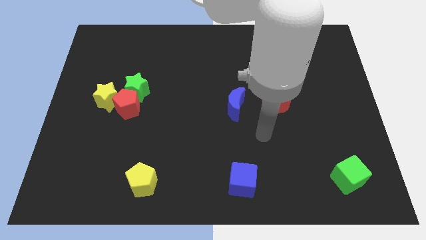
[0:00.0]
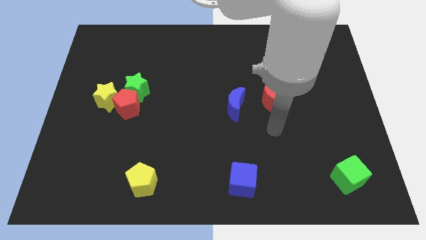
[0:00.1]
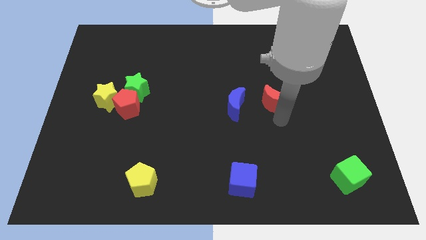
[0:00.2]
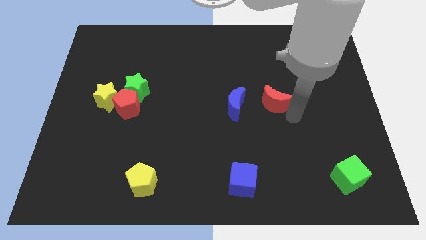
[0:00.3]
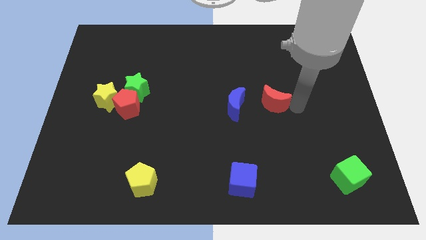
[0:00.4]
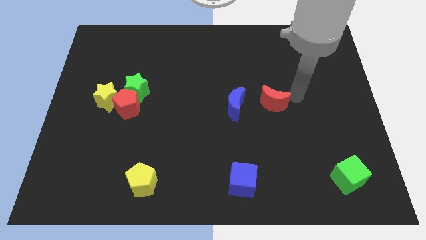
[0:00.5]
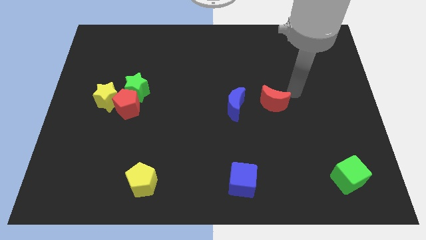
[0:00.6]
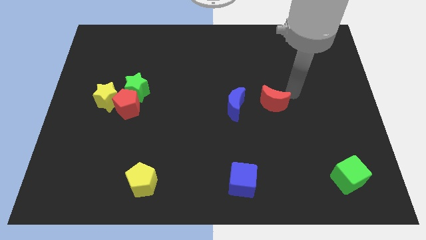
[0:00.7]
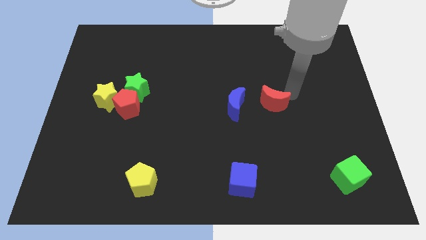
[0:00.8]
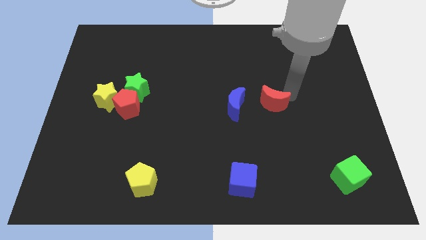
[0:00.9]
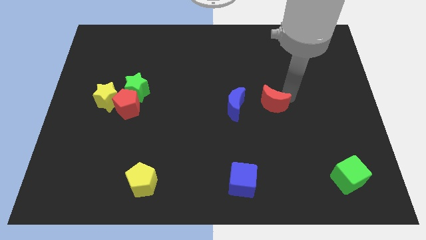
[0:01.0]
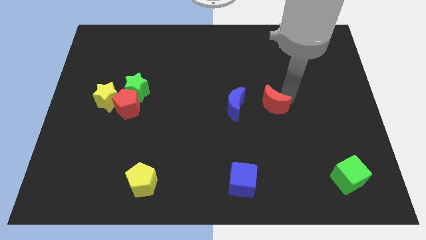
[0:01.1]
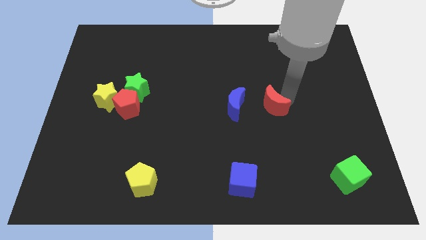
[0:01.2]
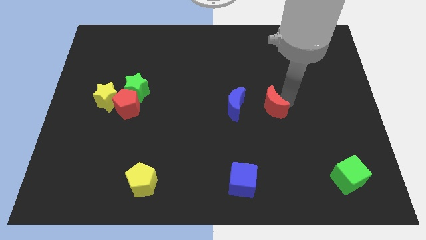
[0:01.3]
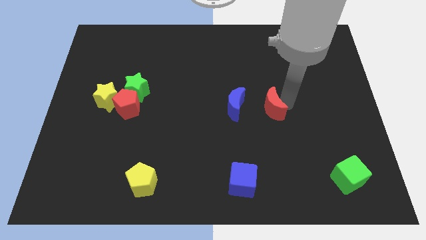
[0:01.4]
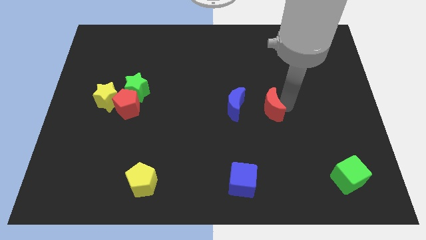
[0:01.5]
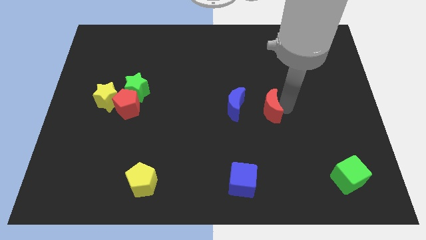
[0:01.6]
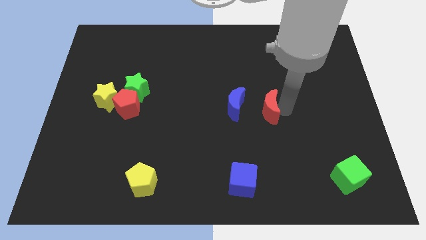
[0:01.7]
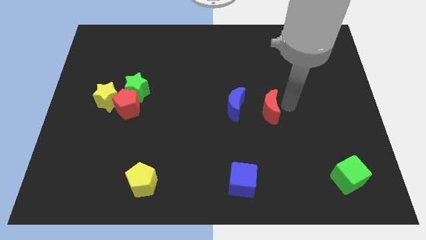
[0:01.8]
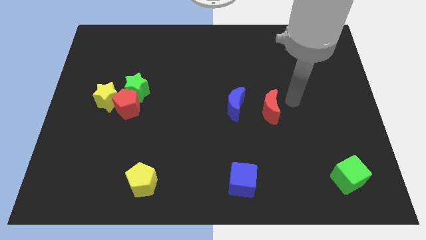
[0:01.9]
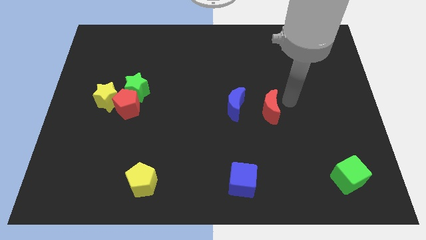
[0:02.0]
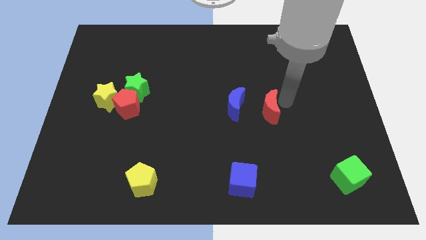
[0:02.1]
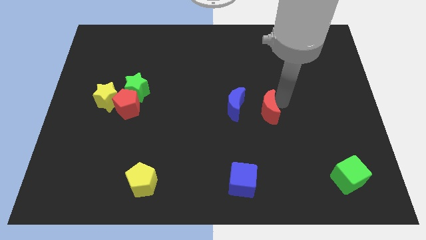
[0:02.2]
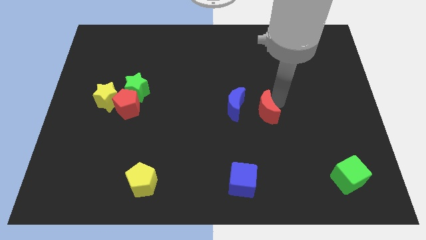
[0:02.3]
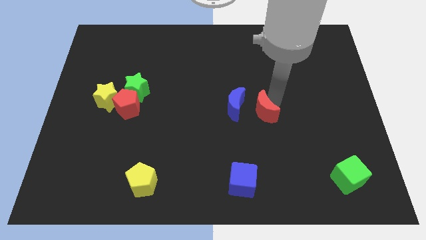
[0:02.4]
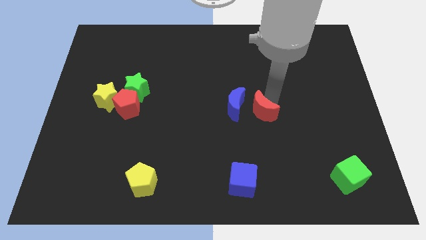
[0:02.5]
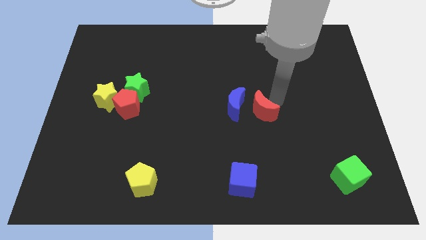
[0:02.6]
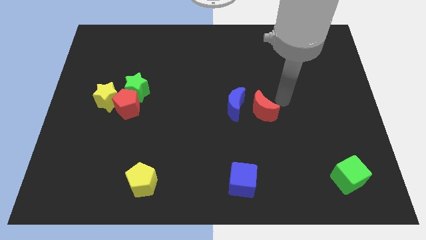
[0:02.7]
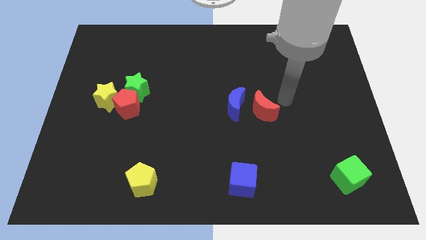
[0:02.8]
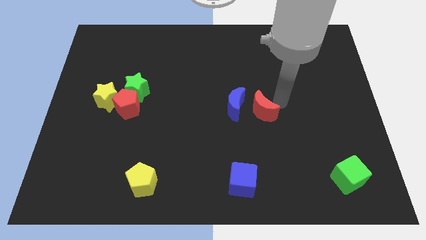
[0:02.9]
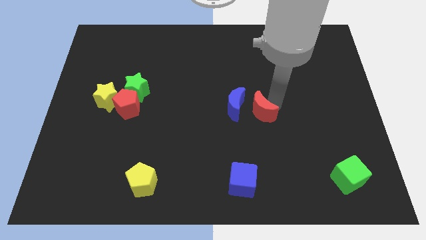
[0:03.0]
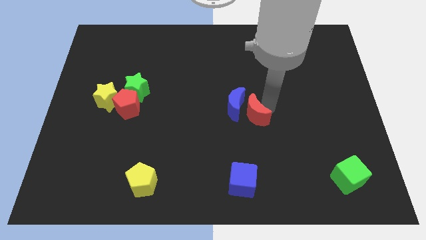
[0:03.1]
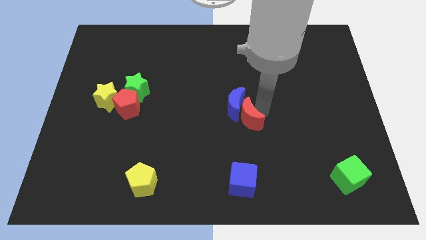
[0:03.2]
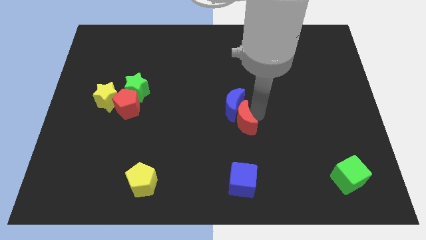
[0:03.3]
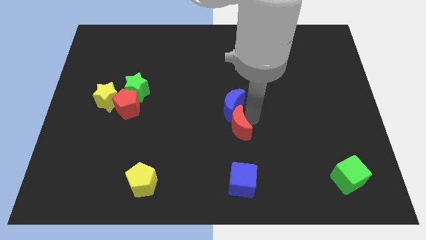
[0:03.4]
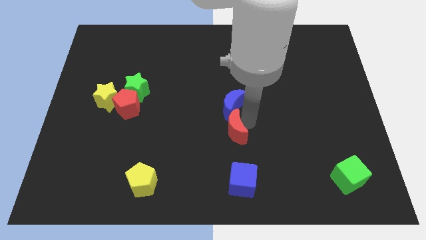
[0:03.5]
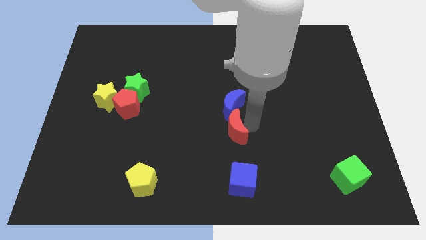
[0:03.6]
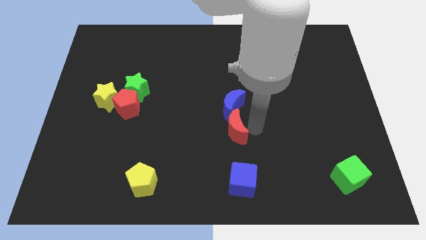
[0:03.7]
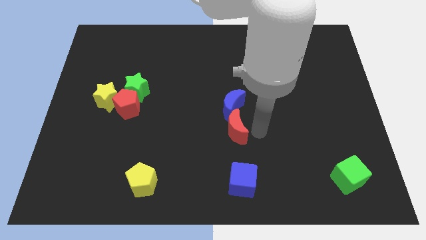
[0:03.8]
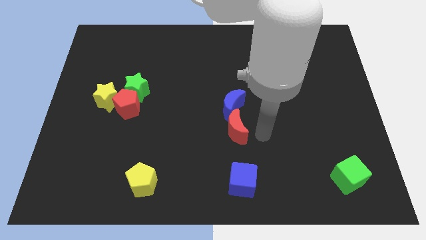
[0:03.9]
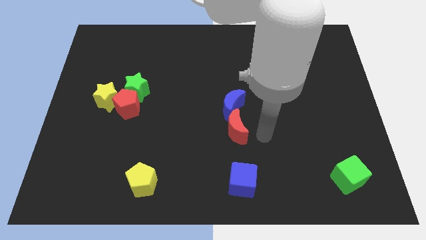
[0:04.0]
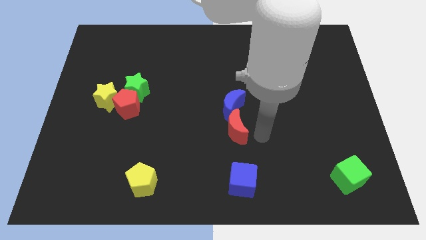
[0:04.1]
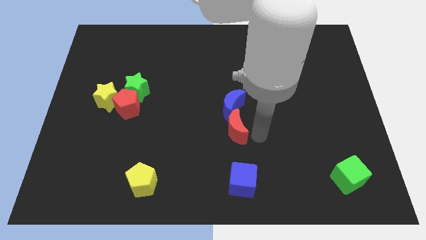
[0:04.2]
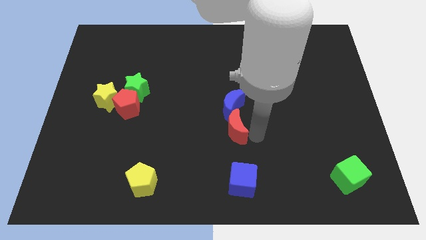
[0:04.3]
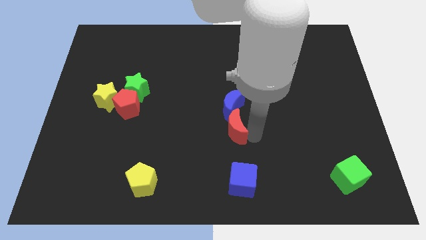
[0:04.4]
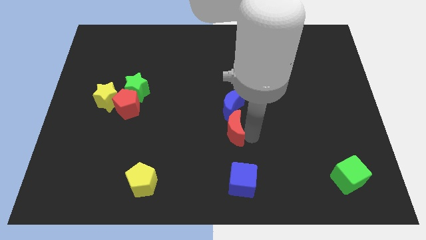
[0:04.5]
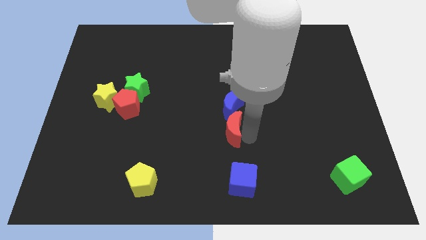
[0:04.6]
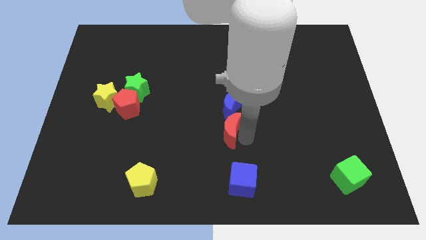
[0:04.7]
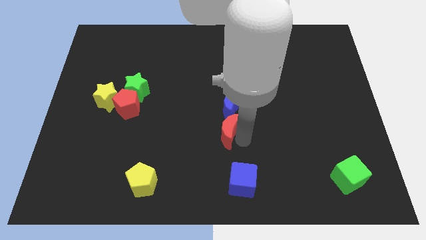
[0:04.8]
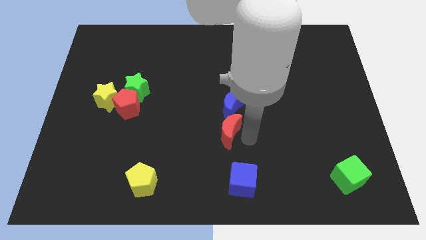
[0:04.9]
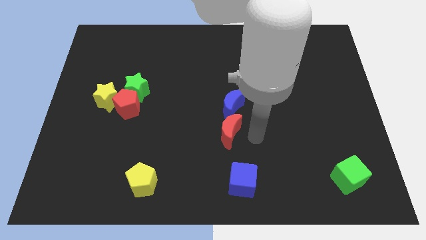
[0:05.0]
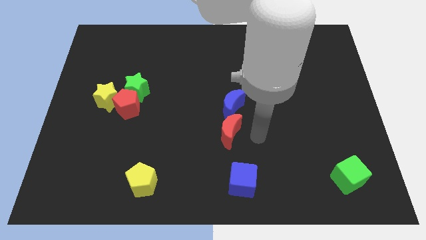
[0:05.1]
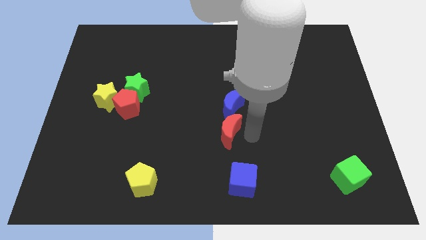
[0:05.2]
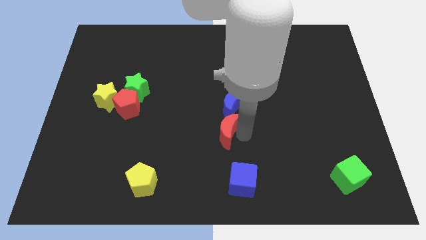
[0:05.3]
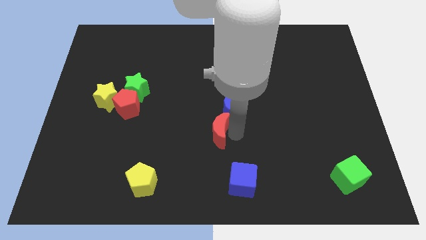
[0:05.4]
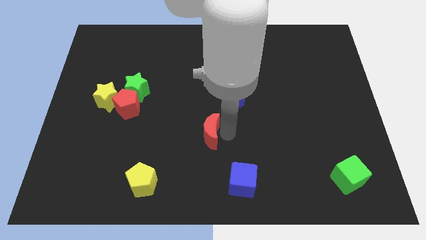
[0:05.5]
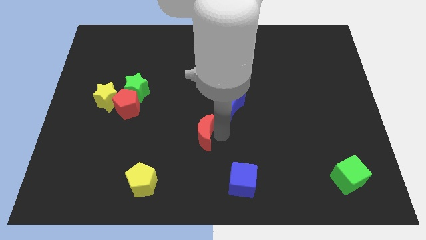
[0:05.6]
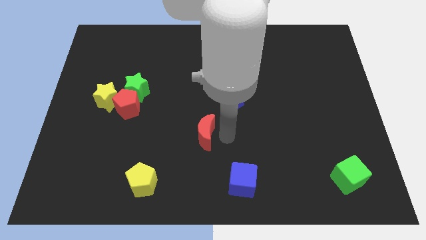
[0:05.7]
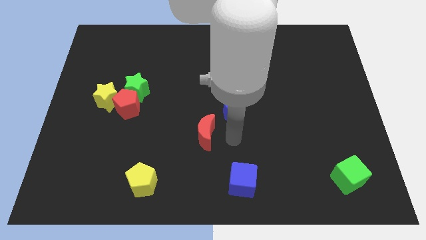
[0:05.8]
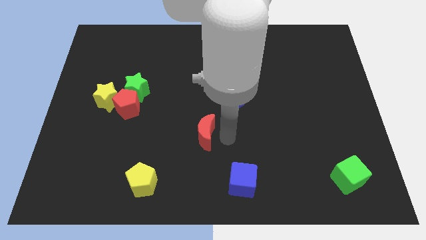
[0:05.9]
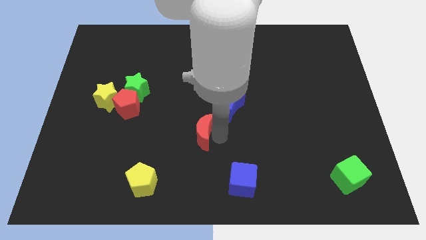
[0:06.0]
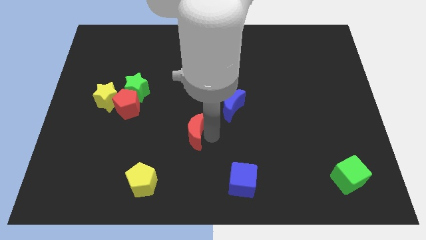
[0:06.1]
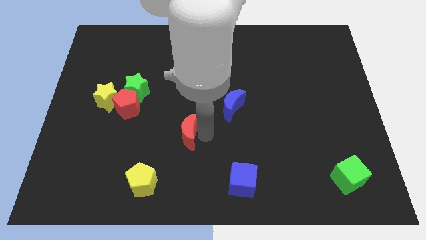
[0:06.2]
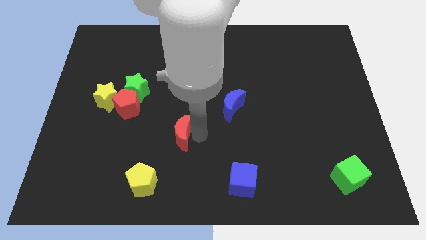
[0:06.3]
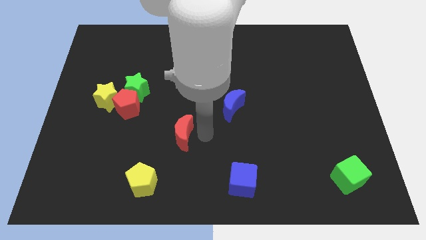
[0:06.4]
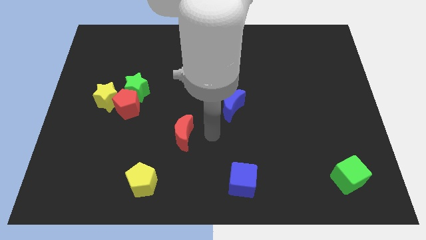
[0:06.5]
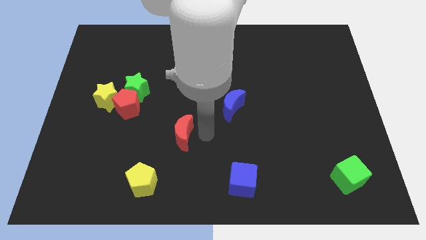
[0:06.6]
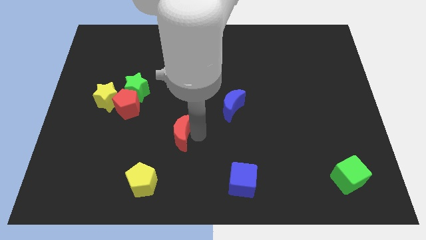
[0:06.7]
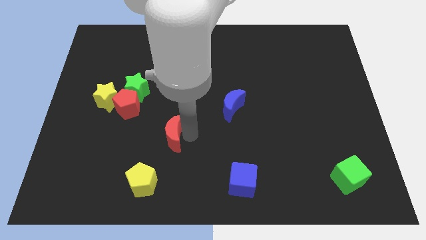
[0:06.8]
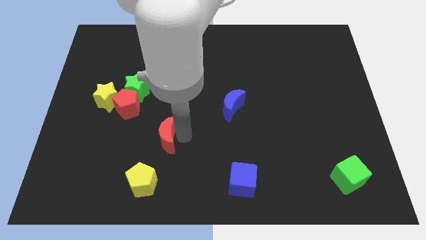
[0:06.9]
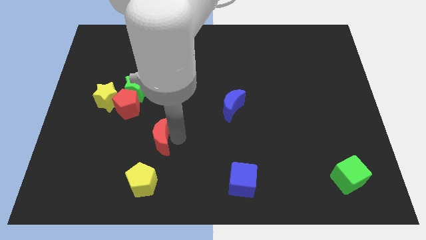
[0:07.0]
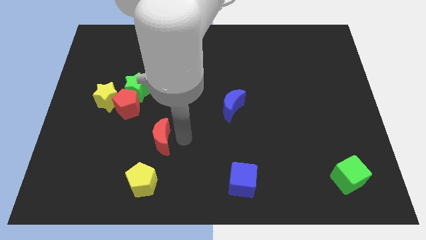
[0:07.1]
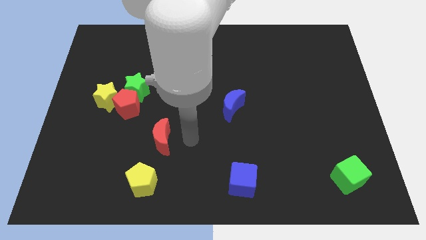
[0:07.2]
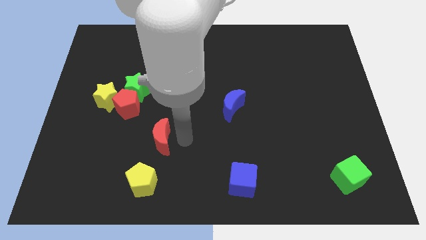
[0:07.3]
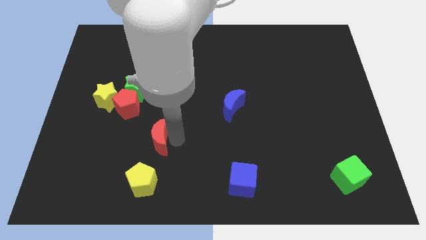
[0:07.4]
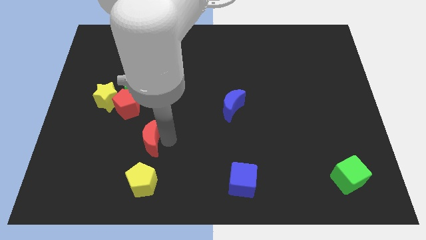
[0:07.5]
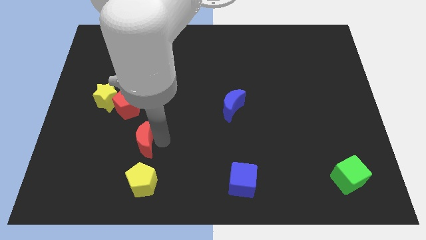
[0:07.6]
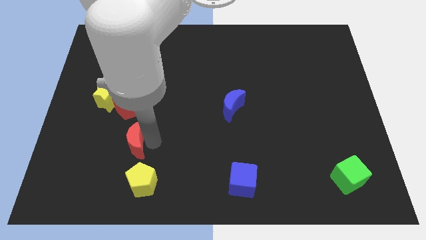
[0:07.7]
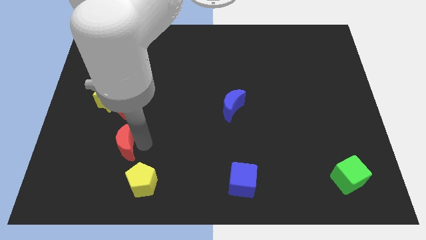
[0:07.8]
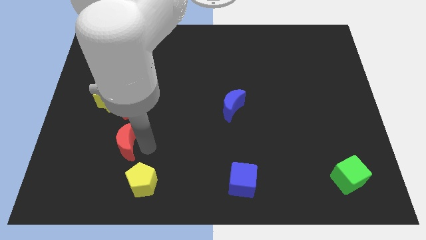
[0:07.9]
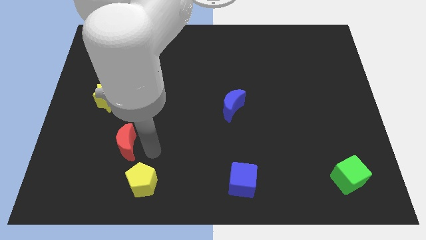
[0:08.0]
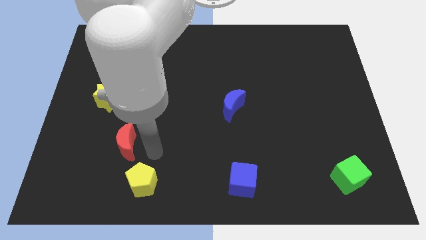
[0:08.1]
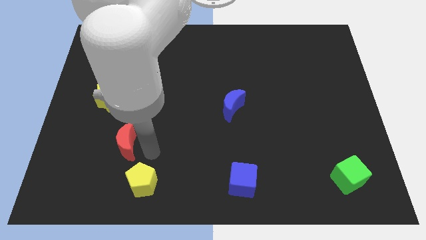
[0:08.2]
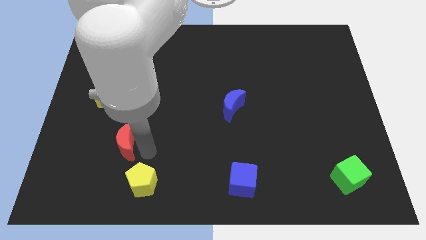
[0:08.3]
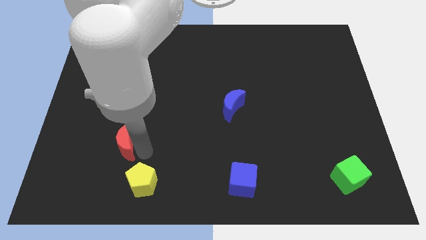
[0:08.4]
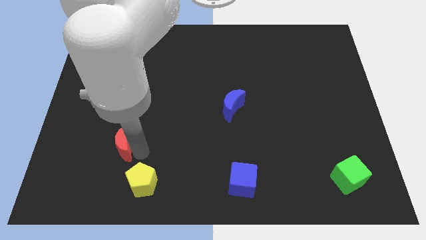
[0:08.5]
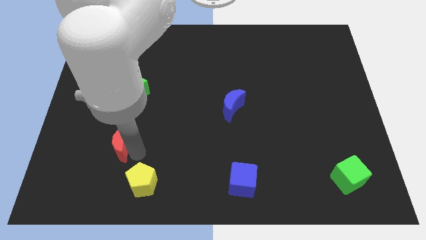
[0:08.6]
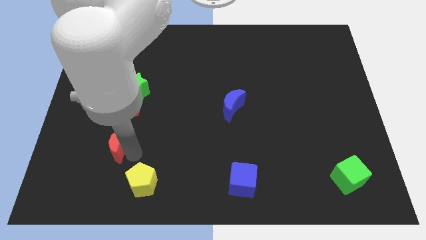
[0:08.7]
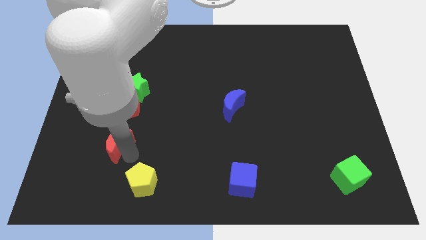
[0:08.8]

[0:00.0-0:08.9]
slide the red moon to the bottom side of the yellow star
